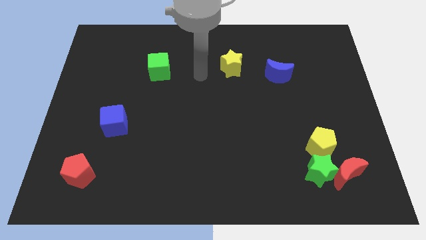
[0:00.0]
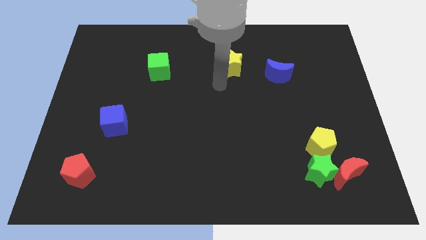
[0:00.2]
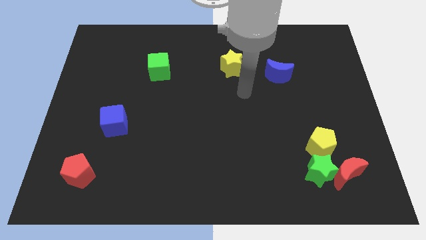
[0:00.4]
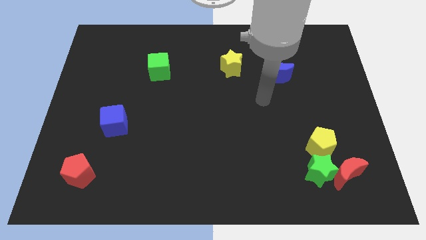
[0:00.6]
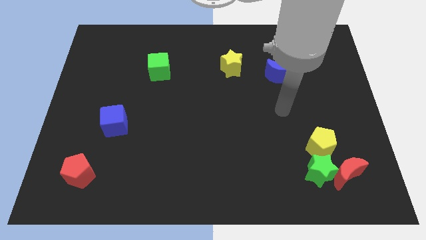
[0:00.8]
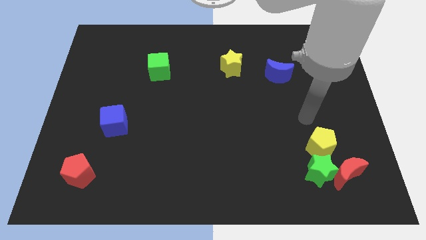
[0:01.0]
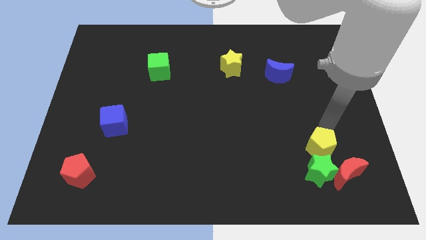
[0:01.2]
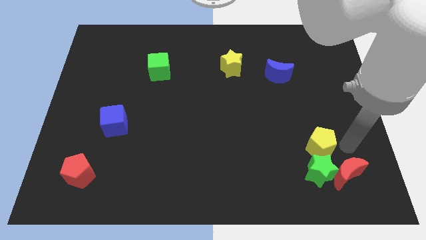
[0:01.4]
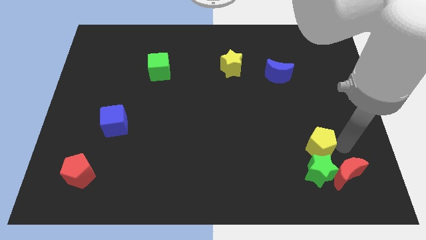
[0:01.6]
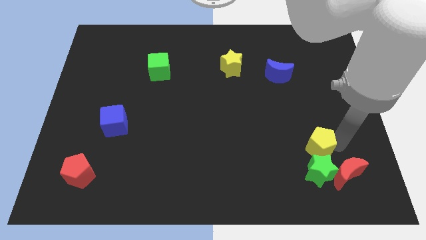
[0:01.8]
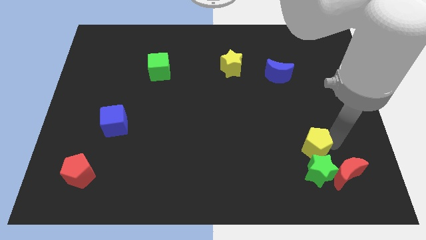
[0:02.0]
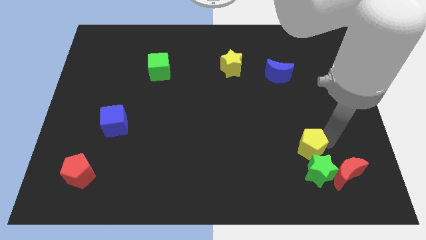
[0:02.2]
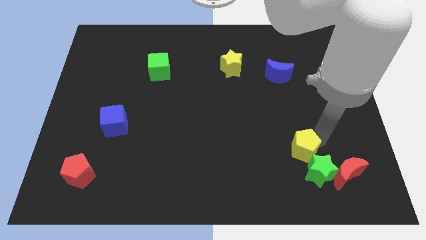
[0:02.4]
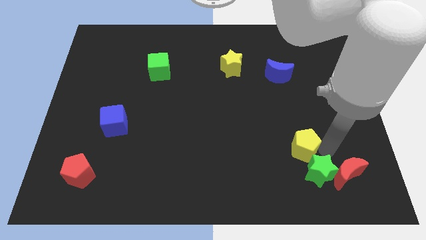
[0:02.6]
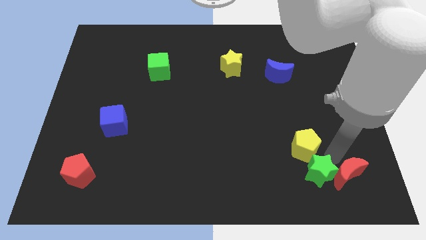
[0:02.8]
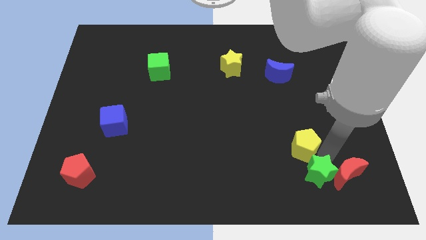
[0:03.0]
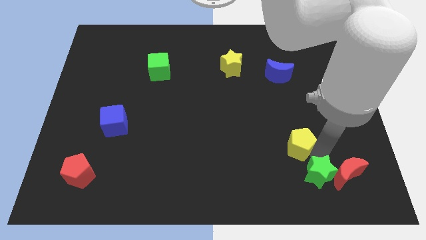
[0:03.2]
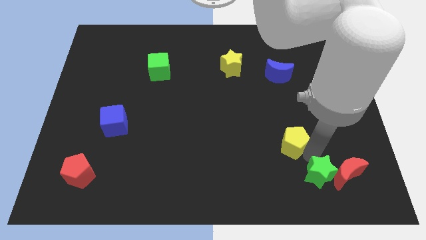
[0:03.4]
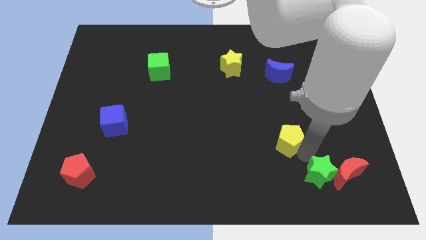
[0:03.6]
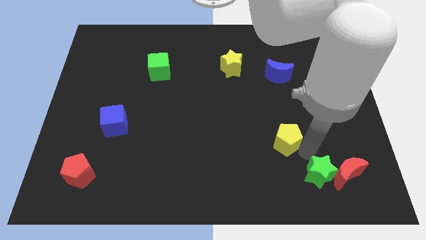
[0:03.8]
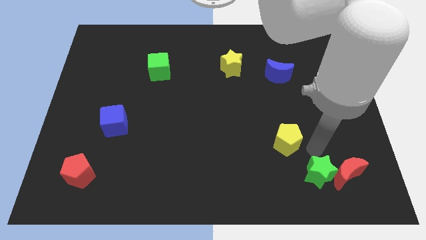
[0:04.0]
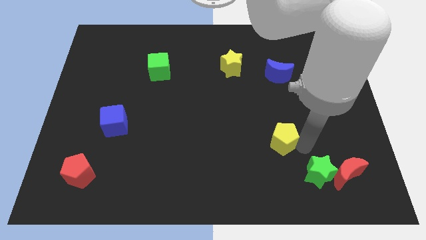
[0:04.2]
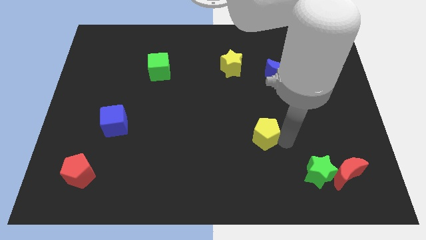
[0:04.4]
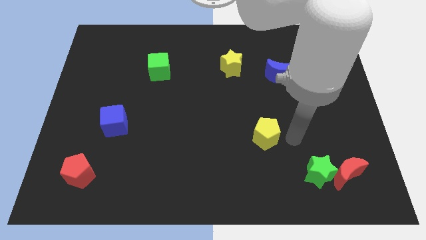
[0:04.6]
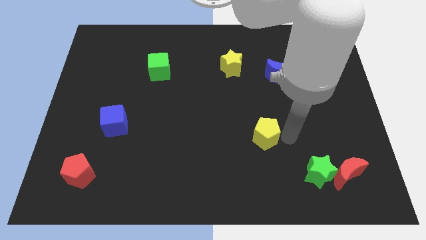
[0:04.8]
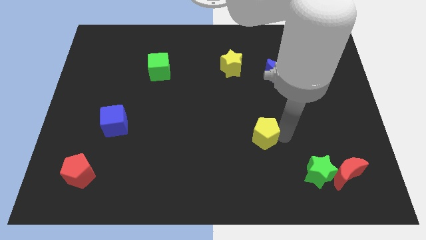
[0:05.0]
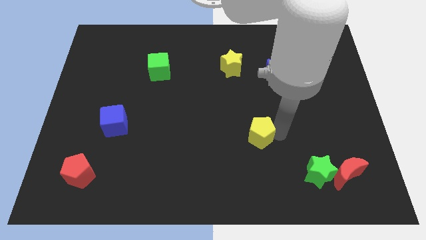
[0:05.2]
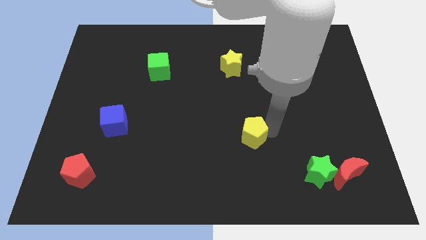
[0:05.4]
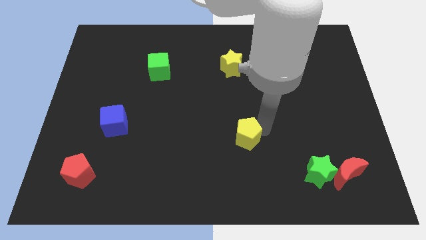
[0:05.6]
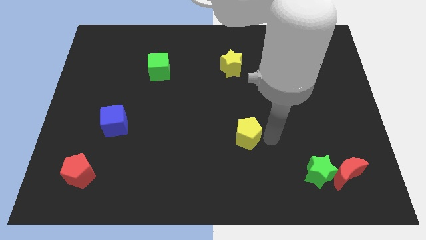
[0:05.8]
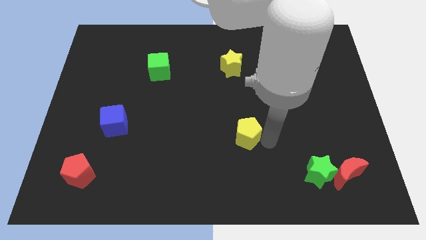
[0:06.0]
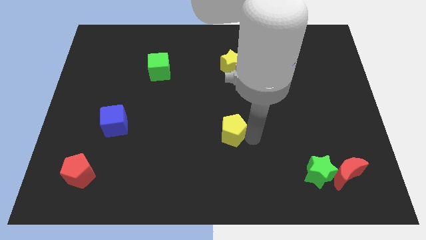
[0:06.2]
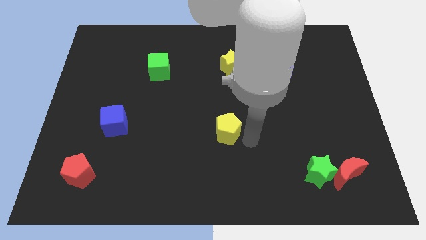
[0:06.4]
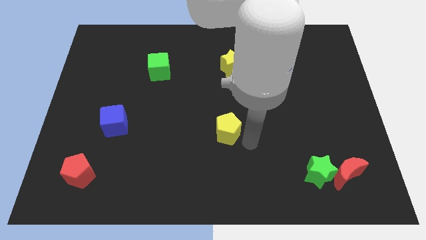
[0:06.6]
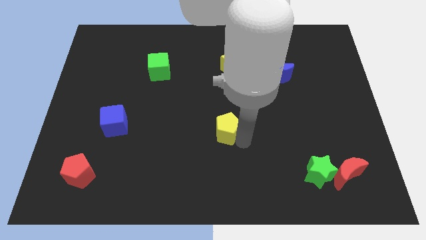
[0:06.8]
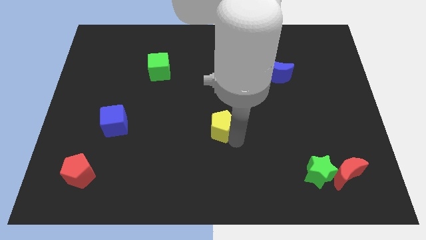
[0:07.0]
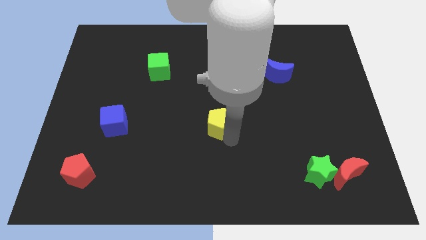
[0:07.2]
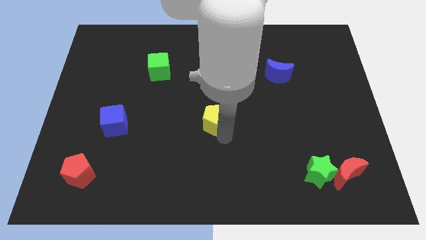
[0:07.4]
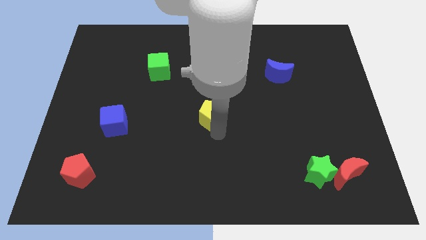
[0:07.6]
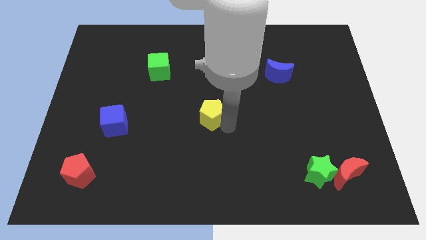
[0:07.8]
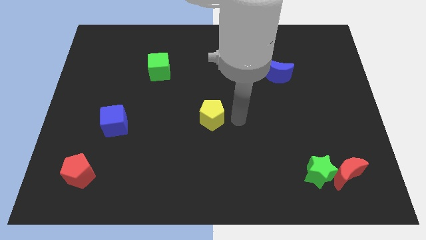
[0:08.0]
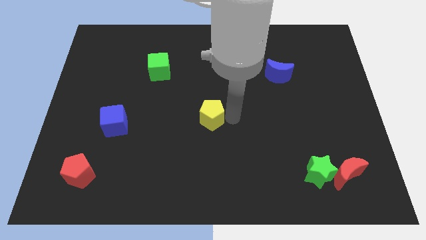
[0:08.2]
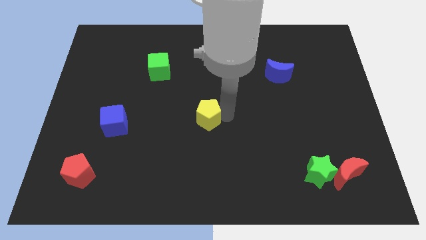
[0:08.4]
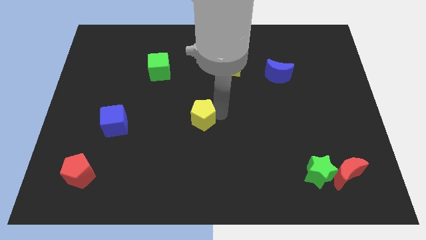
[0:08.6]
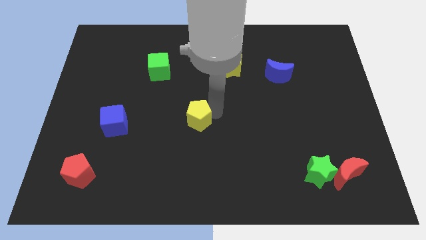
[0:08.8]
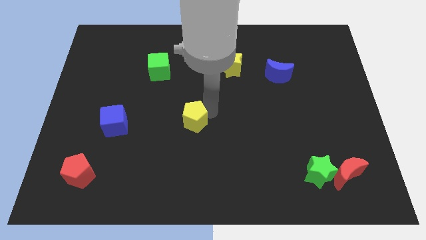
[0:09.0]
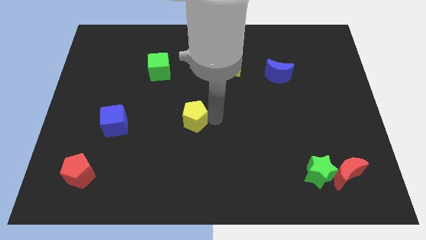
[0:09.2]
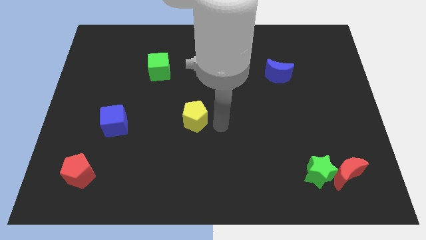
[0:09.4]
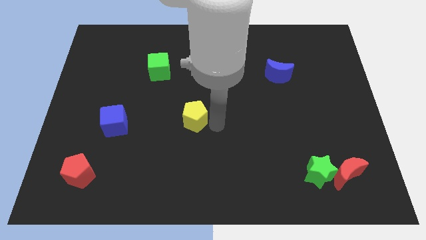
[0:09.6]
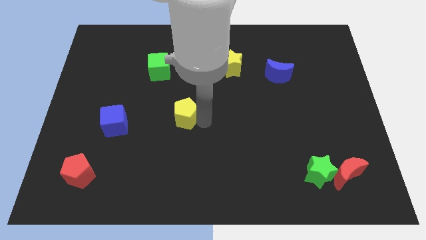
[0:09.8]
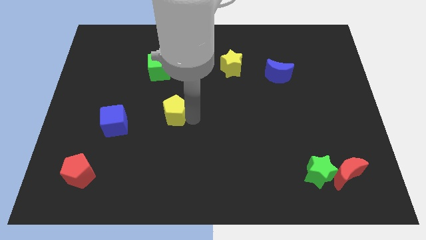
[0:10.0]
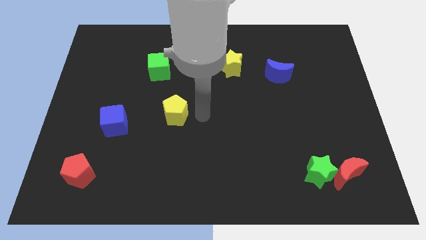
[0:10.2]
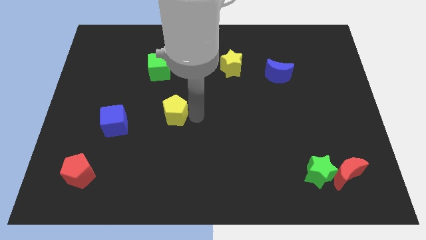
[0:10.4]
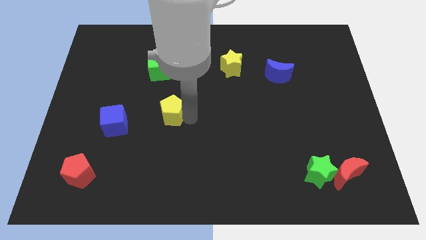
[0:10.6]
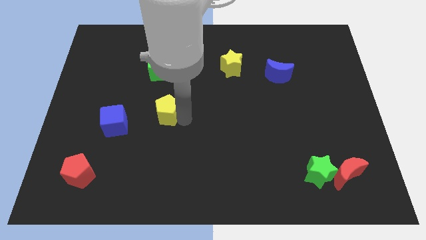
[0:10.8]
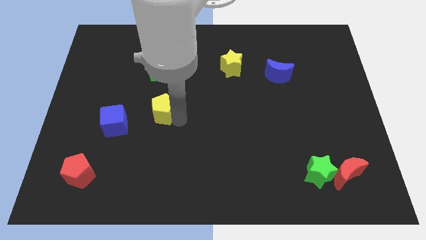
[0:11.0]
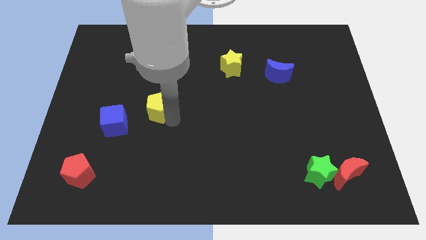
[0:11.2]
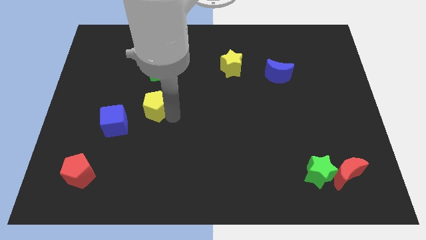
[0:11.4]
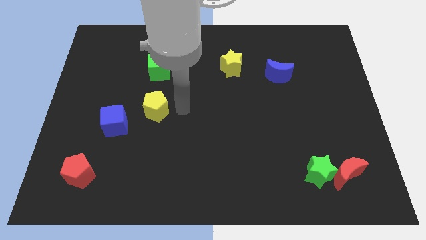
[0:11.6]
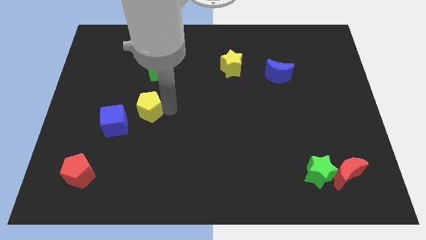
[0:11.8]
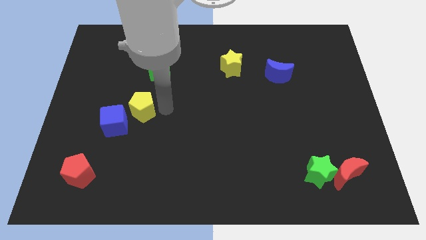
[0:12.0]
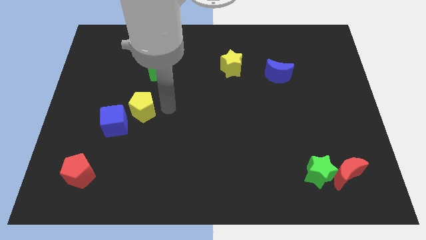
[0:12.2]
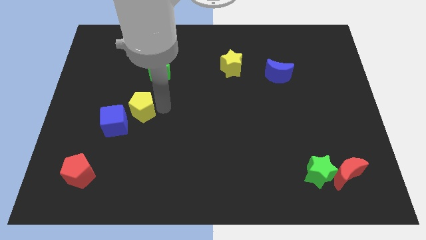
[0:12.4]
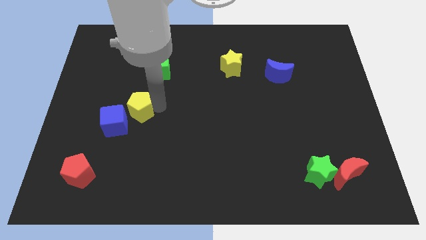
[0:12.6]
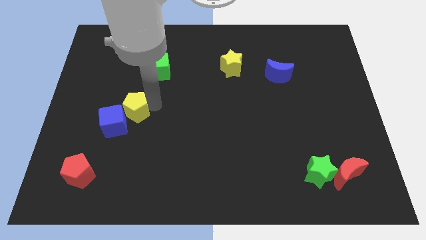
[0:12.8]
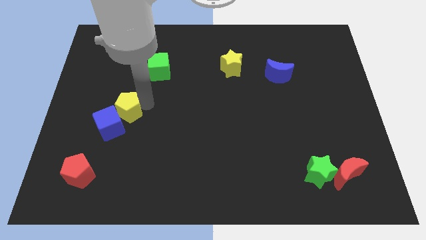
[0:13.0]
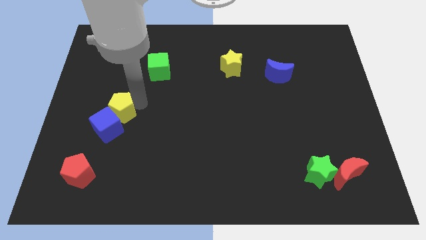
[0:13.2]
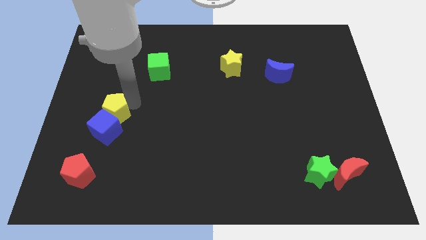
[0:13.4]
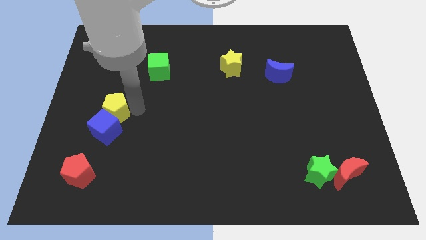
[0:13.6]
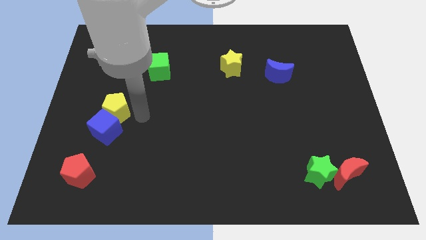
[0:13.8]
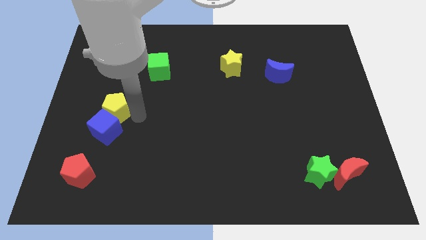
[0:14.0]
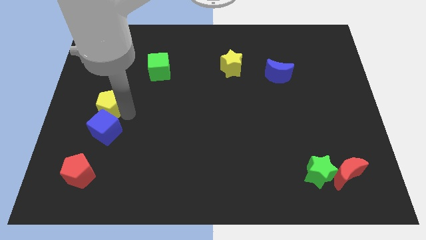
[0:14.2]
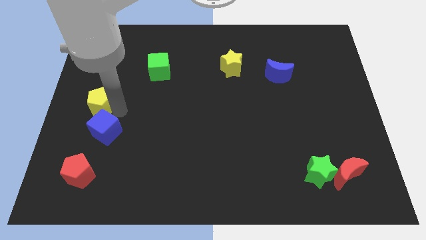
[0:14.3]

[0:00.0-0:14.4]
push the yellow pentagon to the center left
